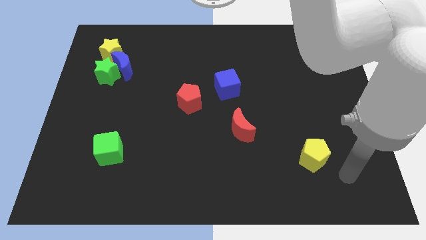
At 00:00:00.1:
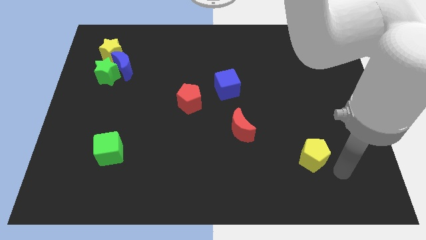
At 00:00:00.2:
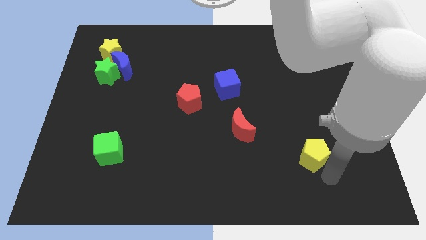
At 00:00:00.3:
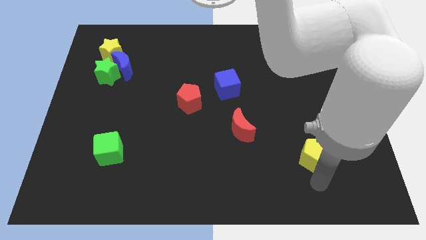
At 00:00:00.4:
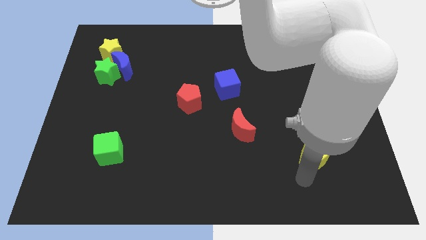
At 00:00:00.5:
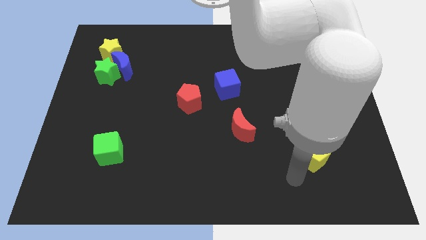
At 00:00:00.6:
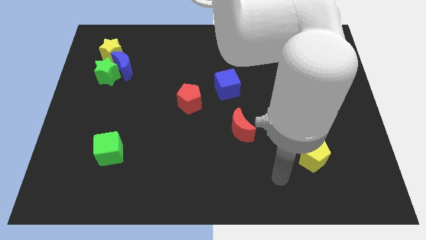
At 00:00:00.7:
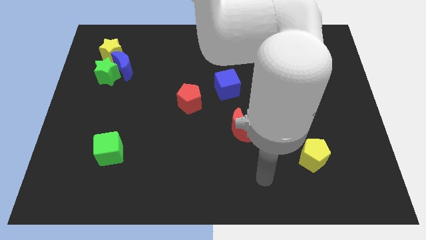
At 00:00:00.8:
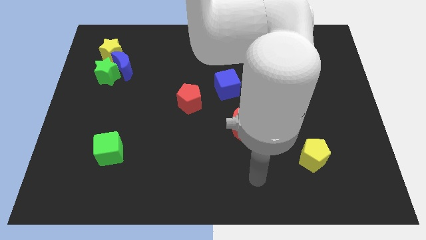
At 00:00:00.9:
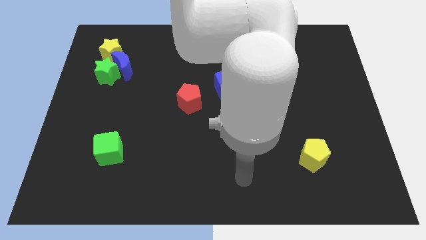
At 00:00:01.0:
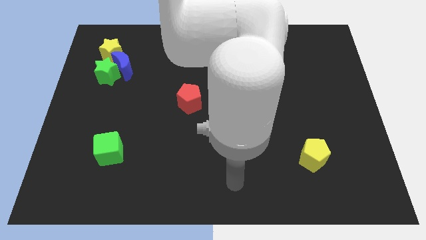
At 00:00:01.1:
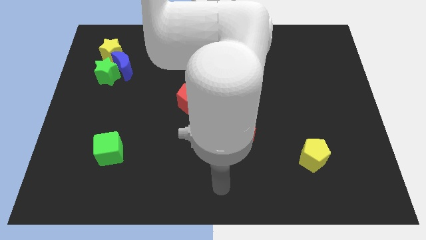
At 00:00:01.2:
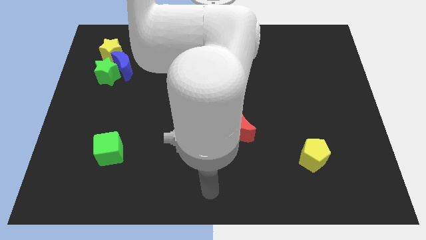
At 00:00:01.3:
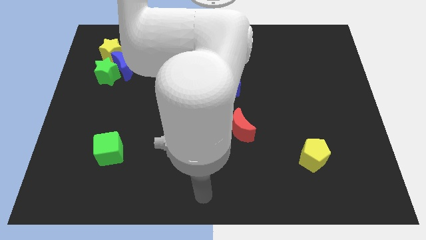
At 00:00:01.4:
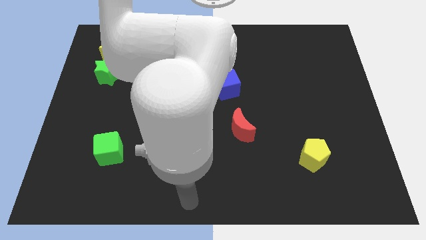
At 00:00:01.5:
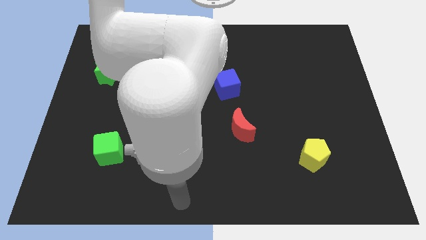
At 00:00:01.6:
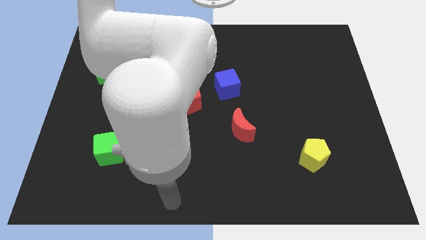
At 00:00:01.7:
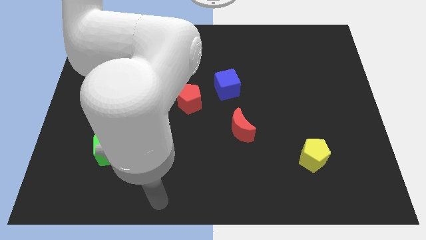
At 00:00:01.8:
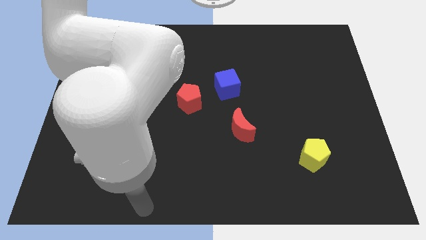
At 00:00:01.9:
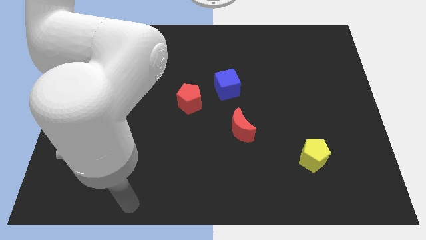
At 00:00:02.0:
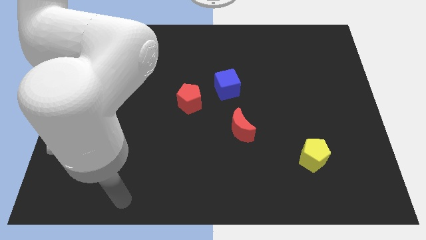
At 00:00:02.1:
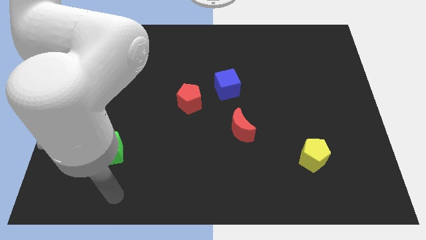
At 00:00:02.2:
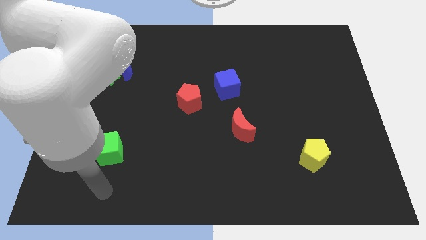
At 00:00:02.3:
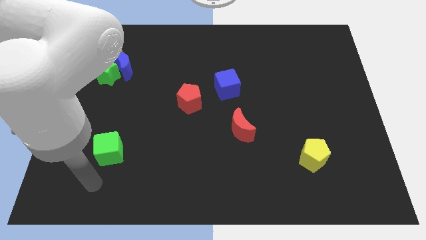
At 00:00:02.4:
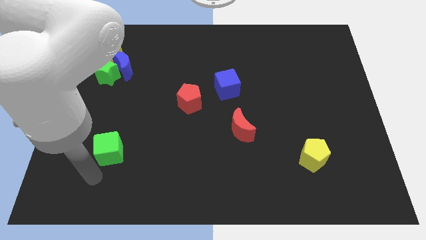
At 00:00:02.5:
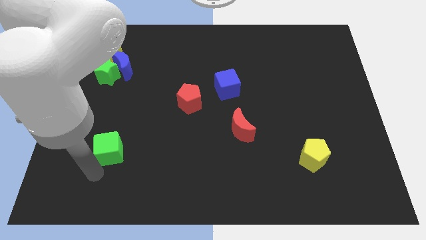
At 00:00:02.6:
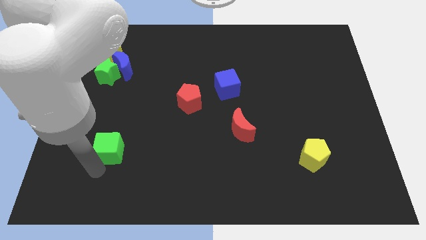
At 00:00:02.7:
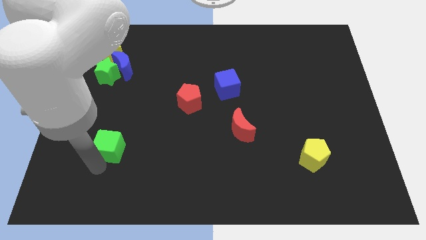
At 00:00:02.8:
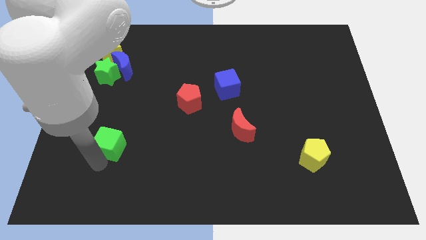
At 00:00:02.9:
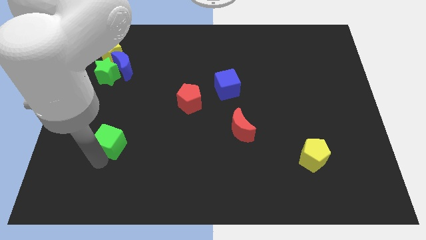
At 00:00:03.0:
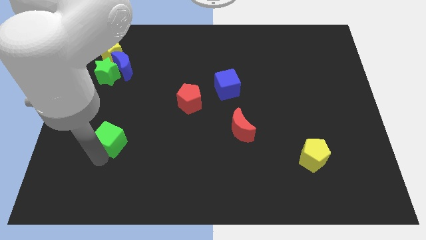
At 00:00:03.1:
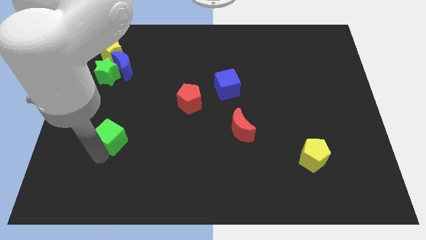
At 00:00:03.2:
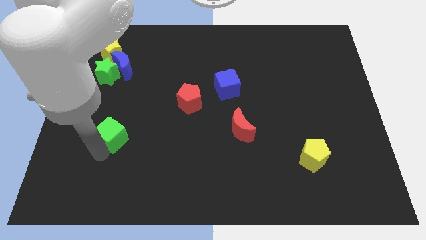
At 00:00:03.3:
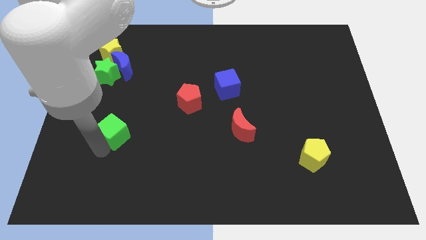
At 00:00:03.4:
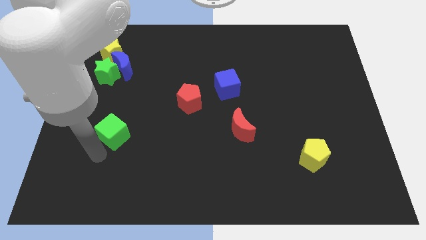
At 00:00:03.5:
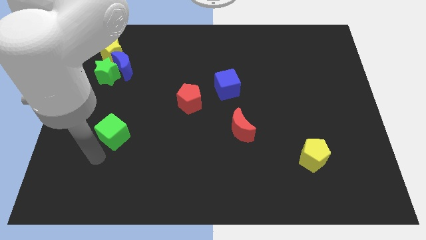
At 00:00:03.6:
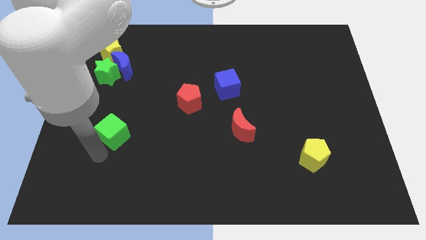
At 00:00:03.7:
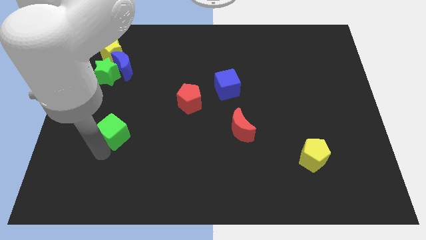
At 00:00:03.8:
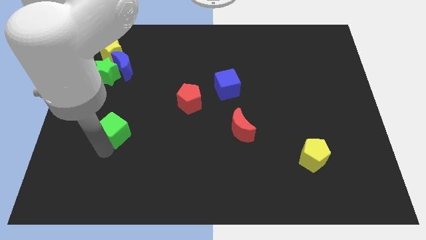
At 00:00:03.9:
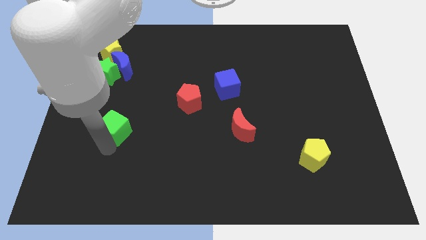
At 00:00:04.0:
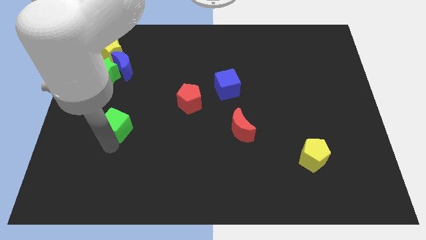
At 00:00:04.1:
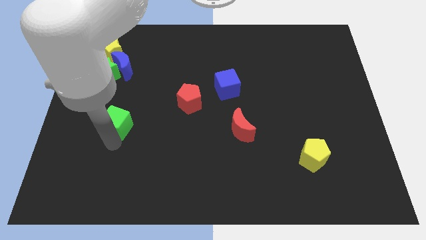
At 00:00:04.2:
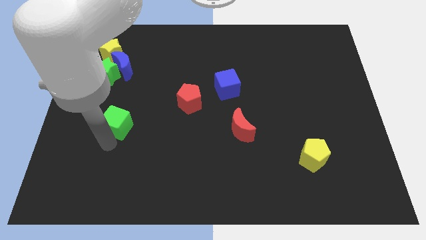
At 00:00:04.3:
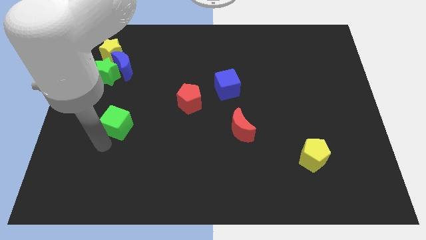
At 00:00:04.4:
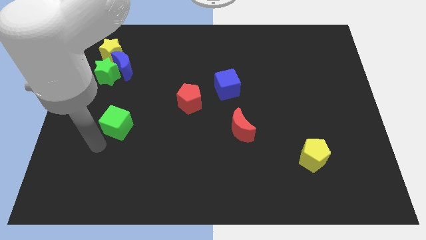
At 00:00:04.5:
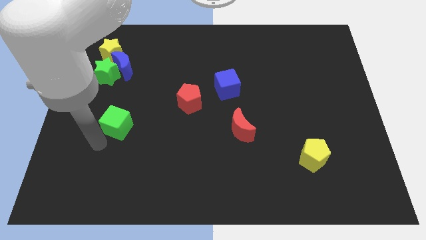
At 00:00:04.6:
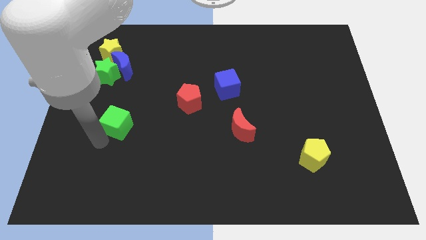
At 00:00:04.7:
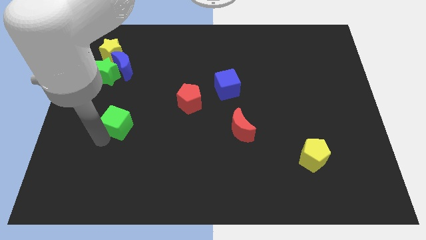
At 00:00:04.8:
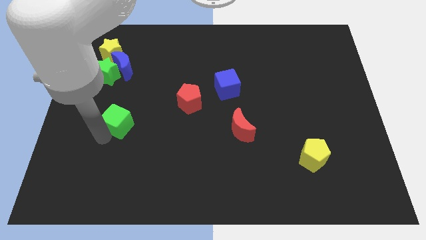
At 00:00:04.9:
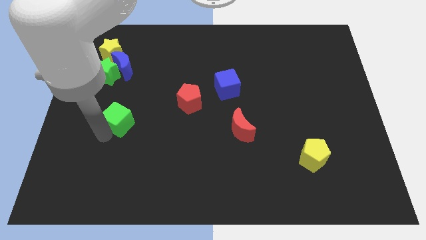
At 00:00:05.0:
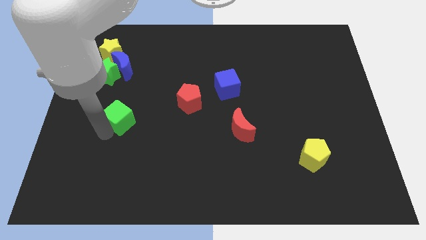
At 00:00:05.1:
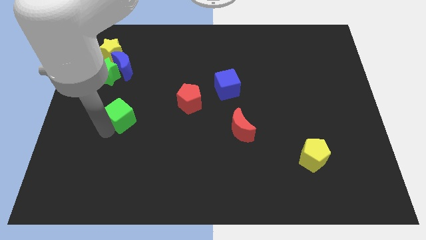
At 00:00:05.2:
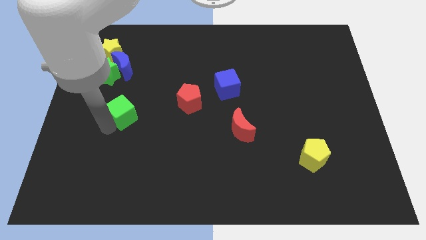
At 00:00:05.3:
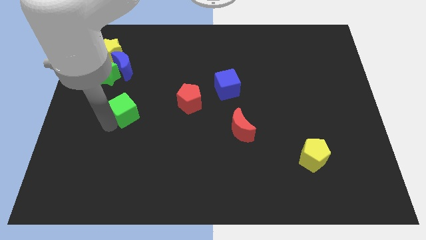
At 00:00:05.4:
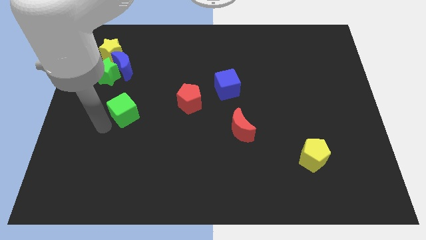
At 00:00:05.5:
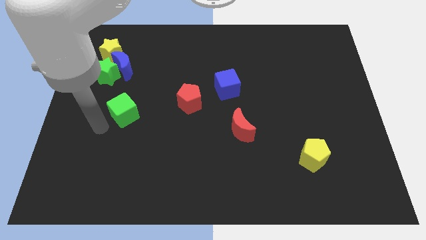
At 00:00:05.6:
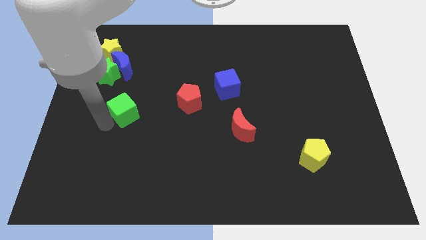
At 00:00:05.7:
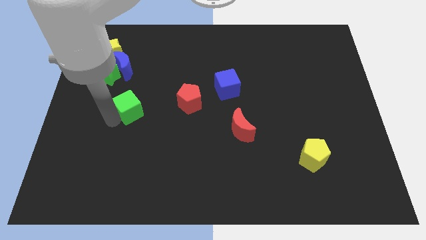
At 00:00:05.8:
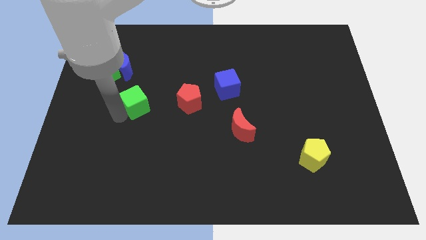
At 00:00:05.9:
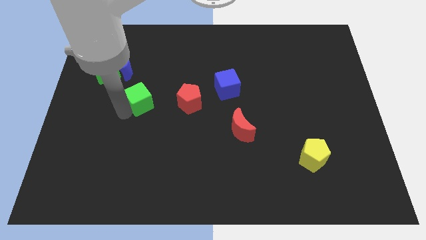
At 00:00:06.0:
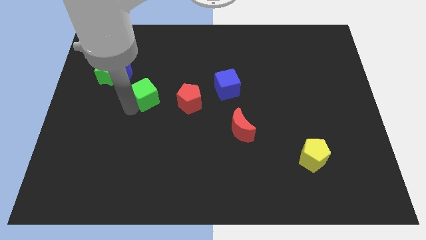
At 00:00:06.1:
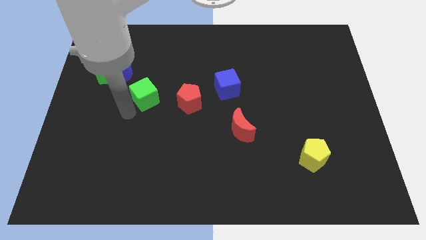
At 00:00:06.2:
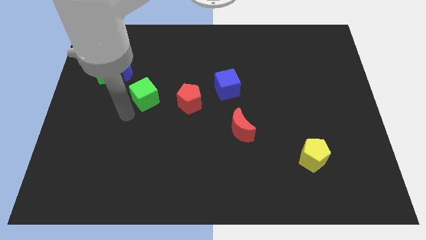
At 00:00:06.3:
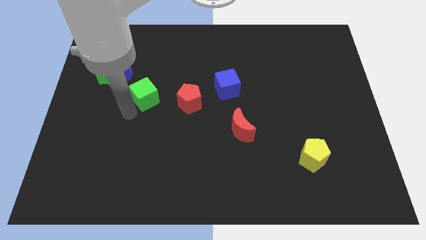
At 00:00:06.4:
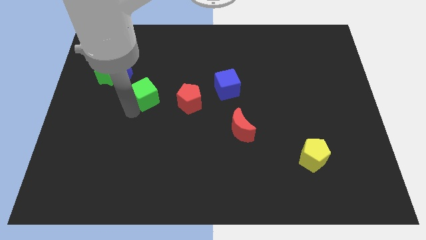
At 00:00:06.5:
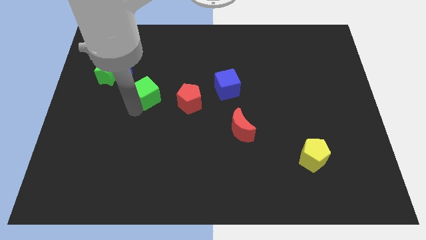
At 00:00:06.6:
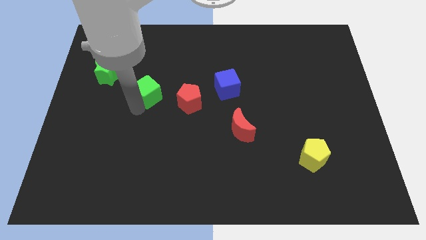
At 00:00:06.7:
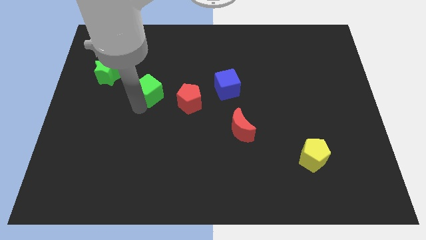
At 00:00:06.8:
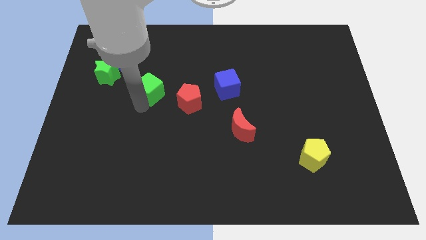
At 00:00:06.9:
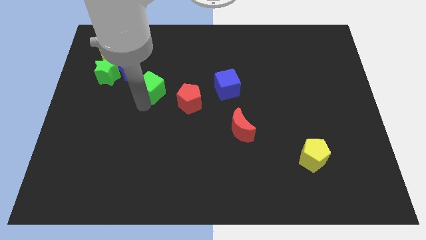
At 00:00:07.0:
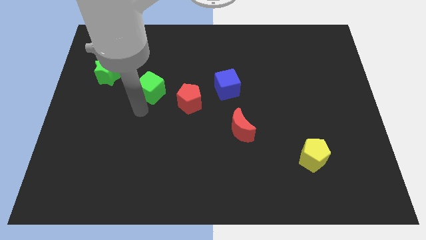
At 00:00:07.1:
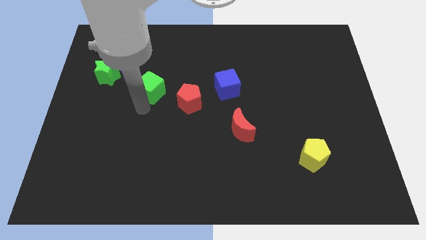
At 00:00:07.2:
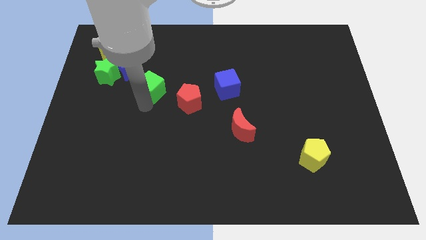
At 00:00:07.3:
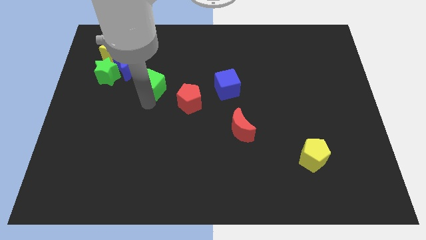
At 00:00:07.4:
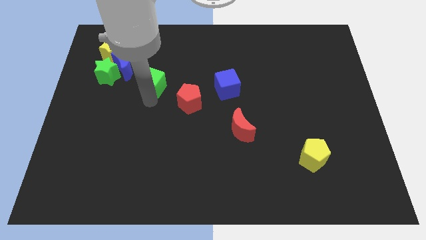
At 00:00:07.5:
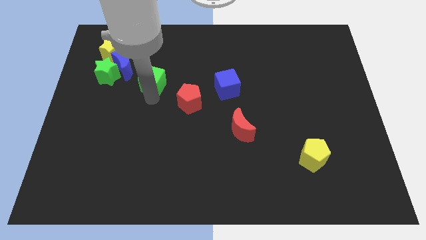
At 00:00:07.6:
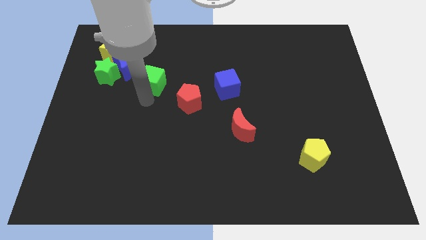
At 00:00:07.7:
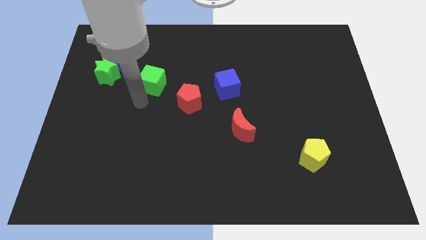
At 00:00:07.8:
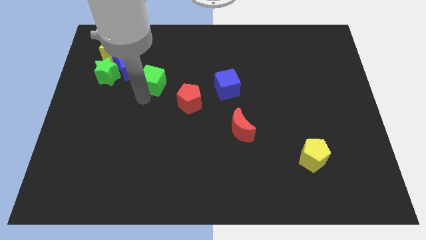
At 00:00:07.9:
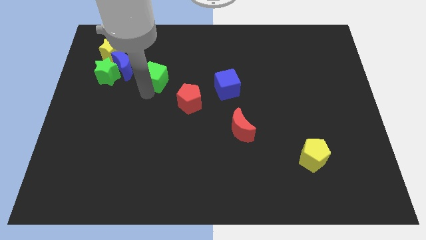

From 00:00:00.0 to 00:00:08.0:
move the green cube to the right side of the blue moon
